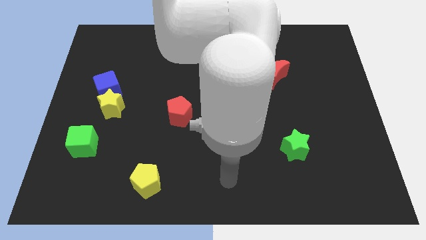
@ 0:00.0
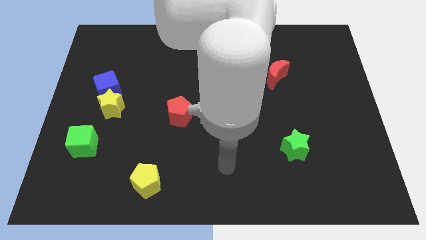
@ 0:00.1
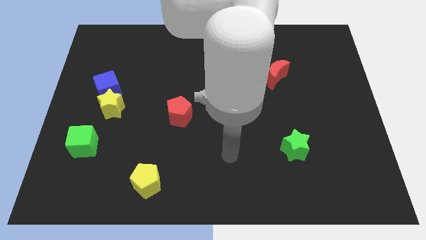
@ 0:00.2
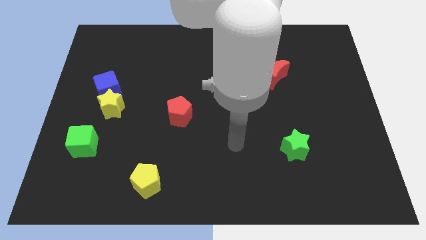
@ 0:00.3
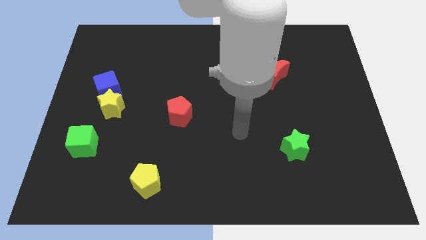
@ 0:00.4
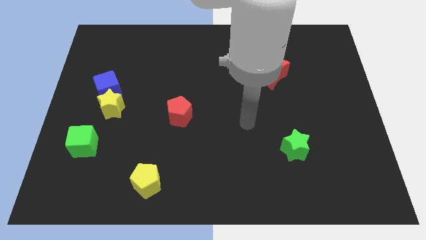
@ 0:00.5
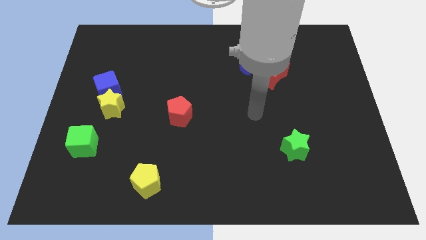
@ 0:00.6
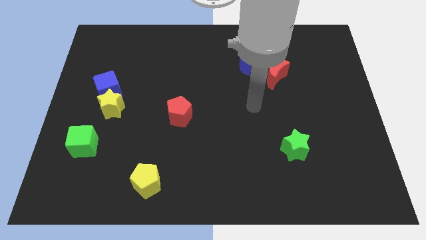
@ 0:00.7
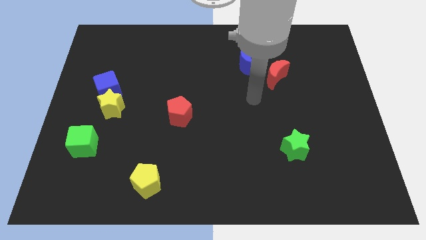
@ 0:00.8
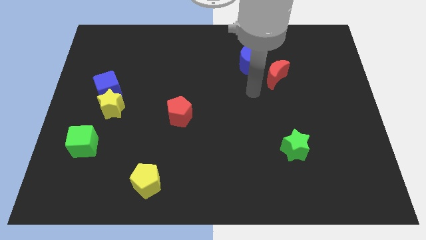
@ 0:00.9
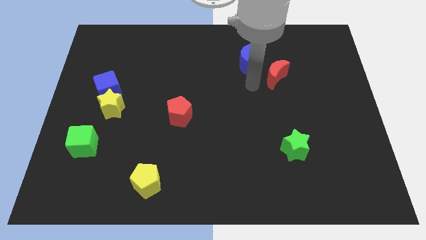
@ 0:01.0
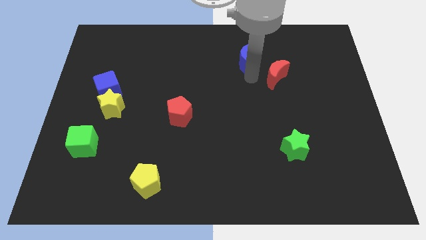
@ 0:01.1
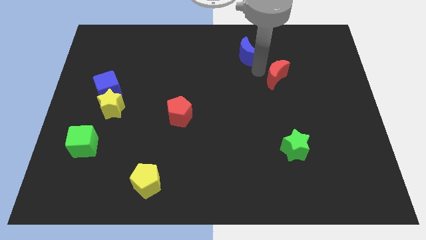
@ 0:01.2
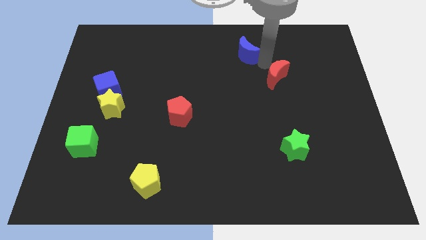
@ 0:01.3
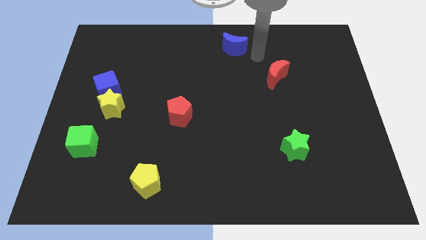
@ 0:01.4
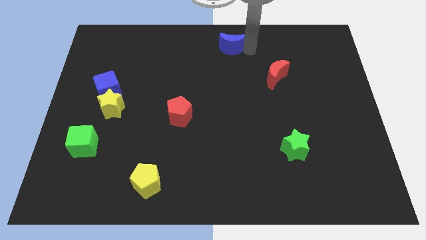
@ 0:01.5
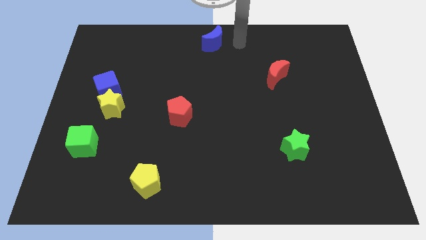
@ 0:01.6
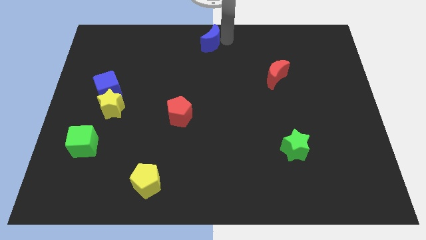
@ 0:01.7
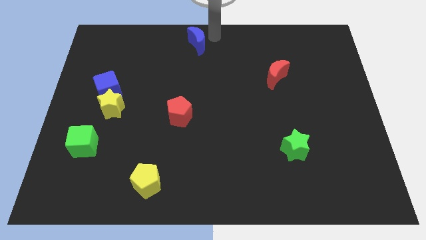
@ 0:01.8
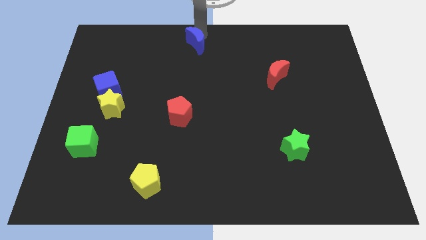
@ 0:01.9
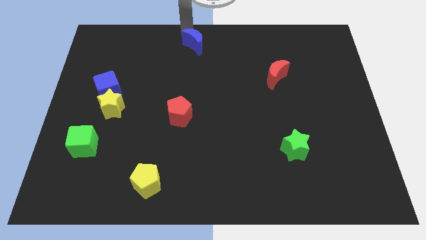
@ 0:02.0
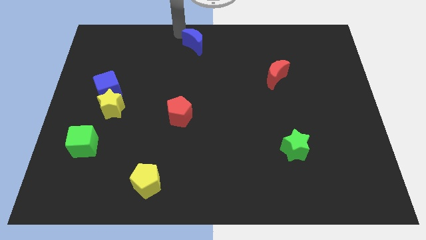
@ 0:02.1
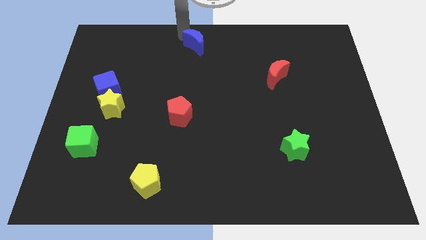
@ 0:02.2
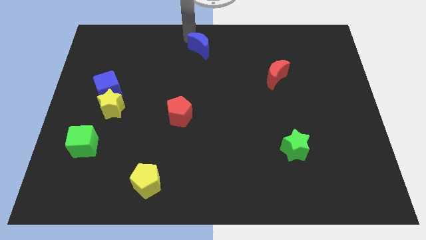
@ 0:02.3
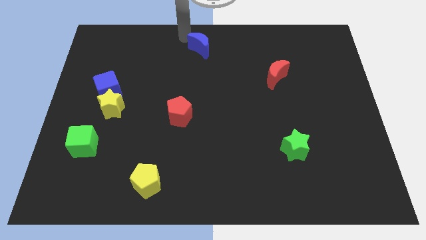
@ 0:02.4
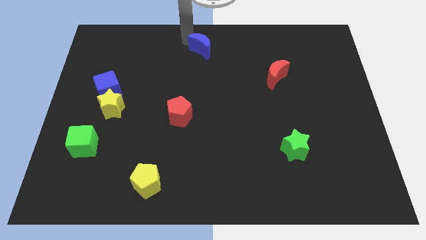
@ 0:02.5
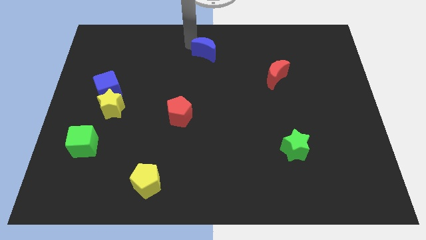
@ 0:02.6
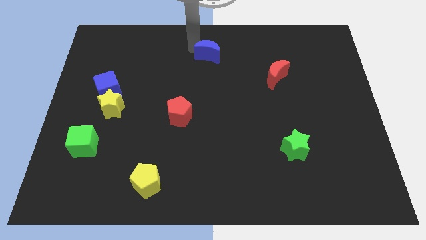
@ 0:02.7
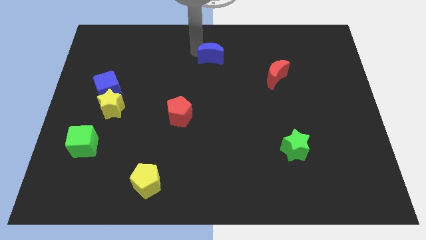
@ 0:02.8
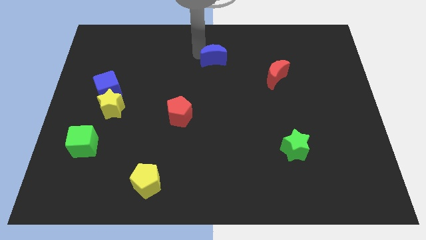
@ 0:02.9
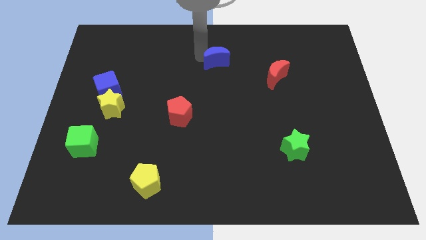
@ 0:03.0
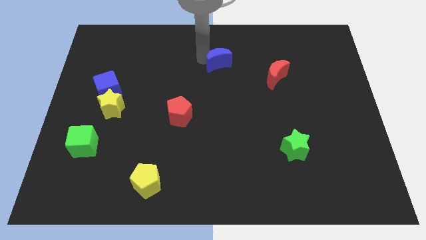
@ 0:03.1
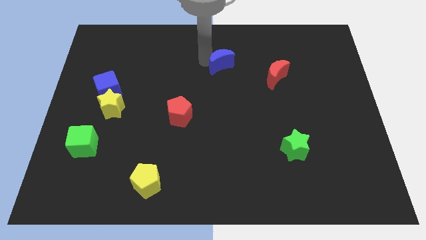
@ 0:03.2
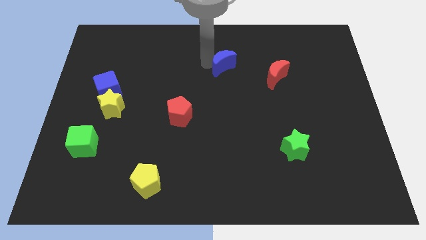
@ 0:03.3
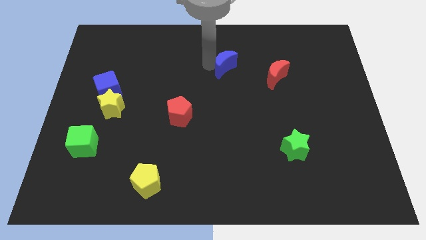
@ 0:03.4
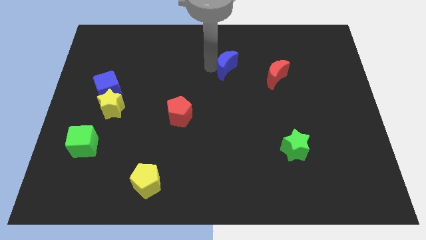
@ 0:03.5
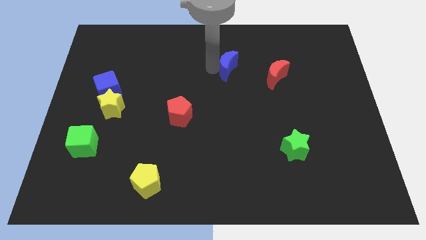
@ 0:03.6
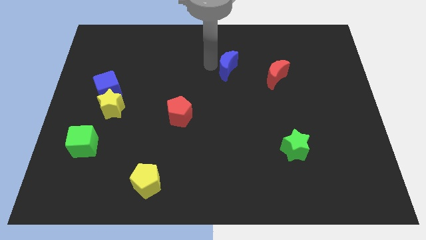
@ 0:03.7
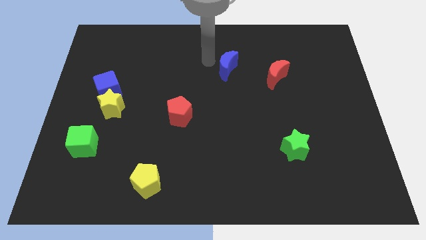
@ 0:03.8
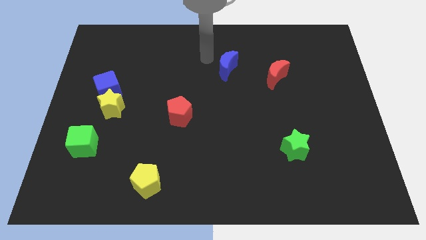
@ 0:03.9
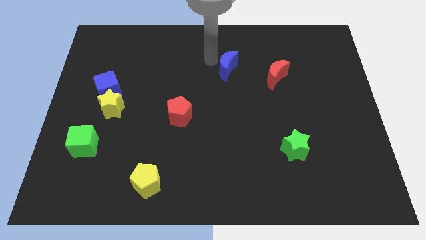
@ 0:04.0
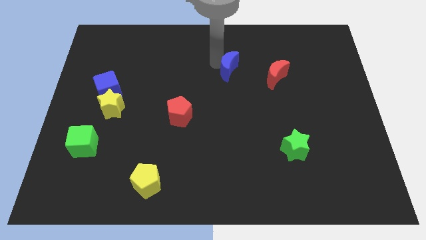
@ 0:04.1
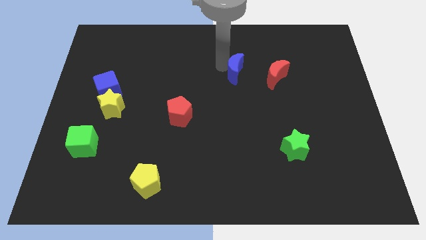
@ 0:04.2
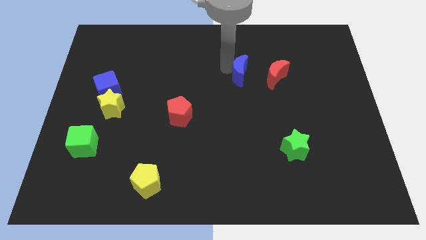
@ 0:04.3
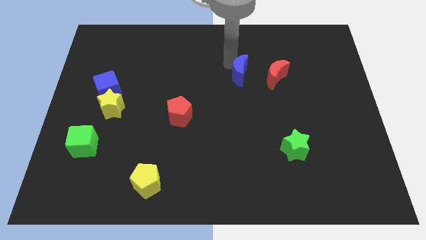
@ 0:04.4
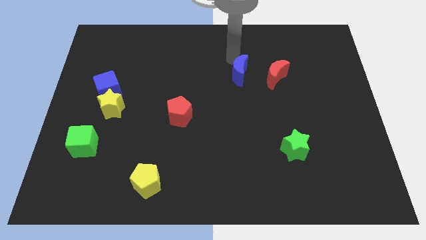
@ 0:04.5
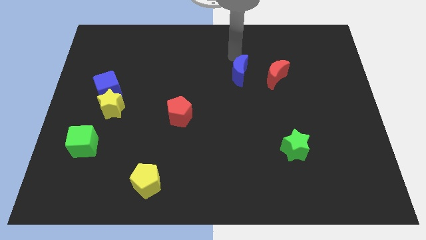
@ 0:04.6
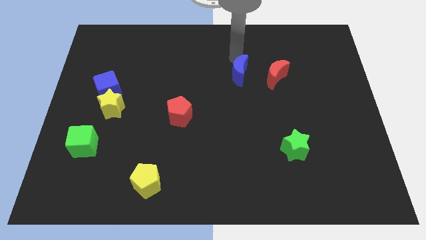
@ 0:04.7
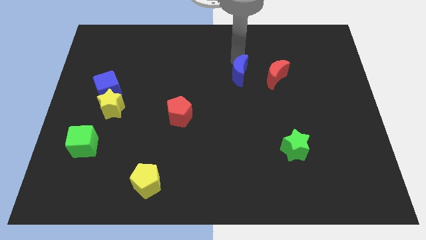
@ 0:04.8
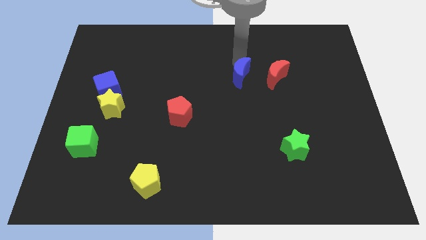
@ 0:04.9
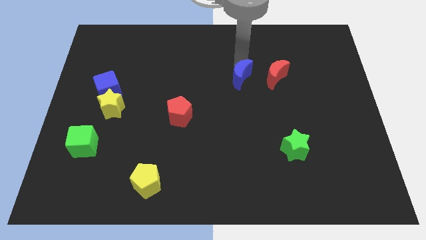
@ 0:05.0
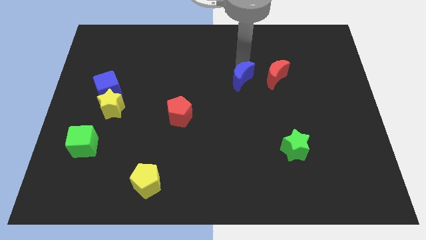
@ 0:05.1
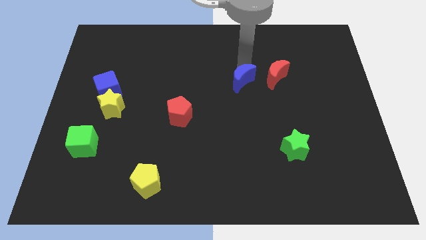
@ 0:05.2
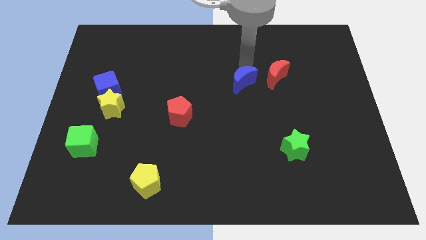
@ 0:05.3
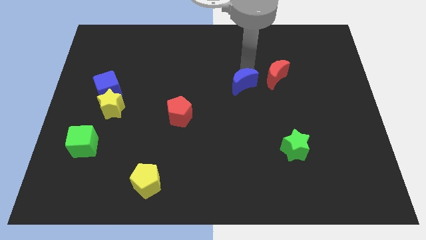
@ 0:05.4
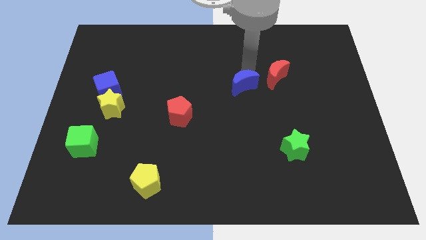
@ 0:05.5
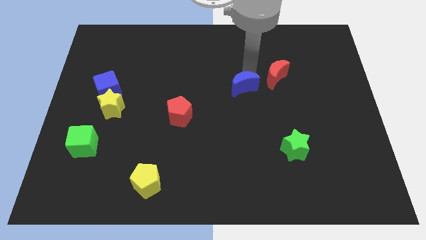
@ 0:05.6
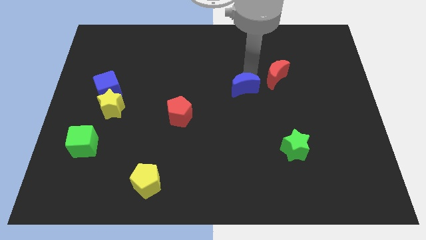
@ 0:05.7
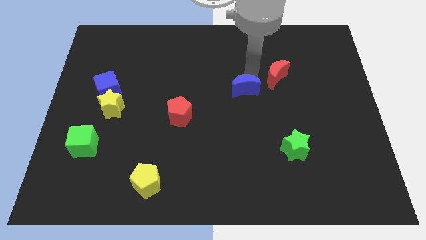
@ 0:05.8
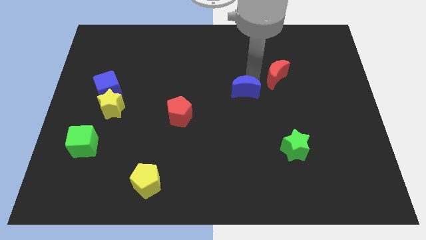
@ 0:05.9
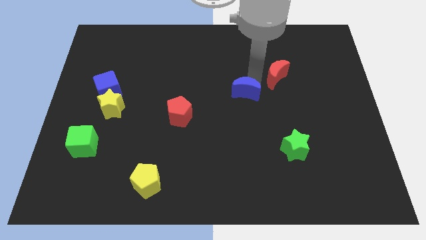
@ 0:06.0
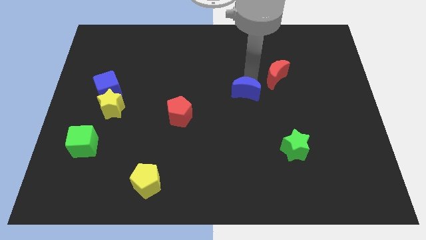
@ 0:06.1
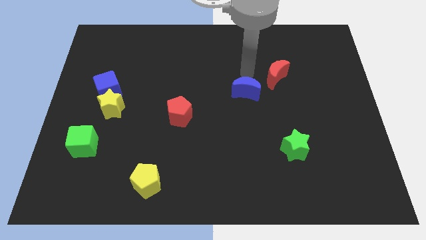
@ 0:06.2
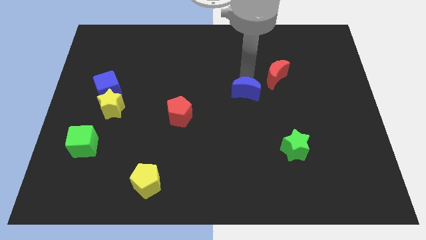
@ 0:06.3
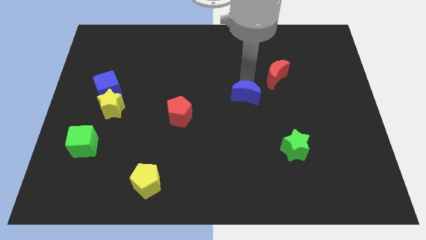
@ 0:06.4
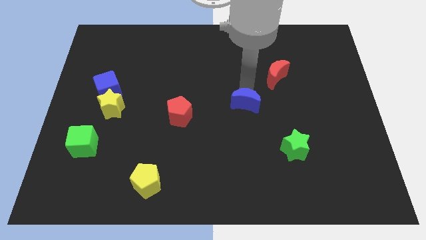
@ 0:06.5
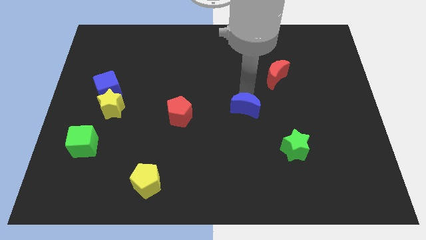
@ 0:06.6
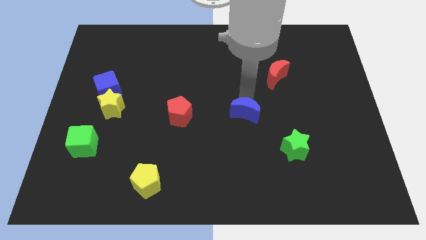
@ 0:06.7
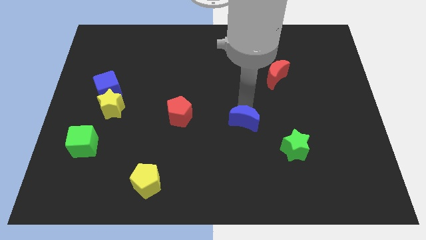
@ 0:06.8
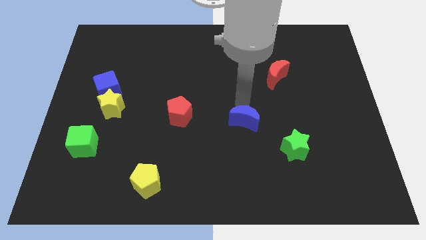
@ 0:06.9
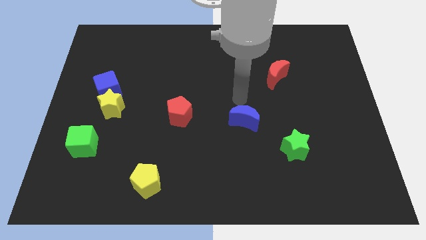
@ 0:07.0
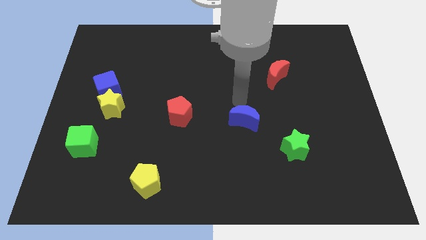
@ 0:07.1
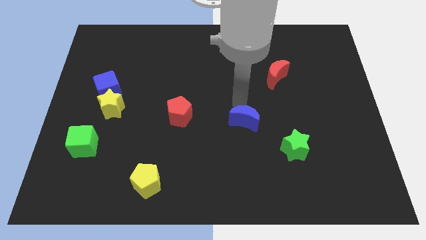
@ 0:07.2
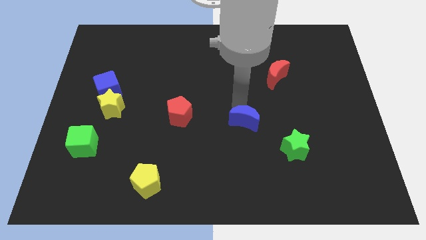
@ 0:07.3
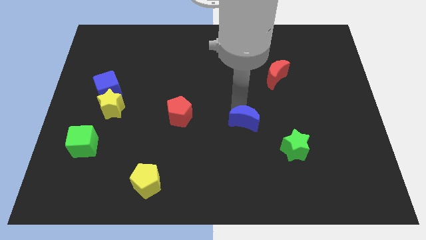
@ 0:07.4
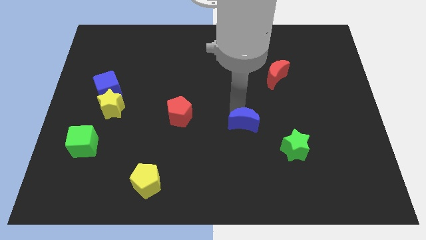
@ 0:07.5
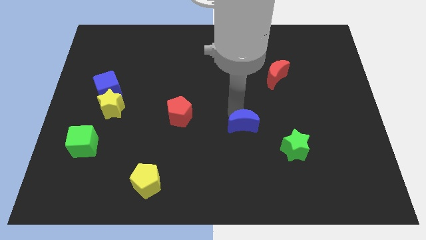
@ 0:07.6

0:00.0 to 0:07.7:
push the blue moon downwards

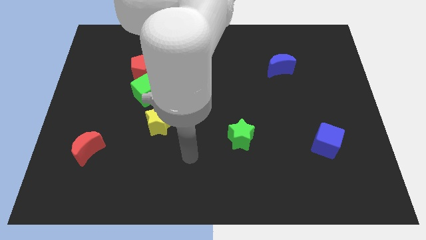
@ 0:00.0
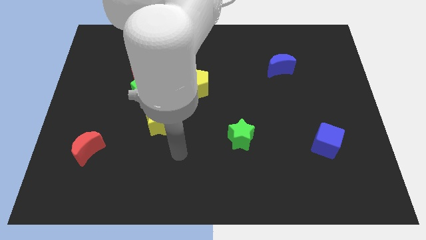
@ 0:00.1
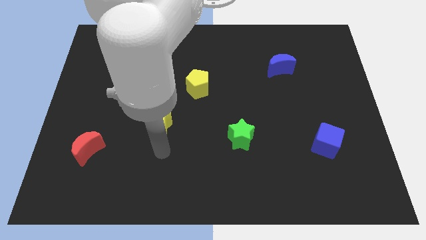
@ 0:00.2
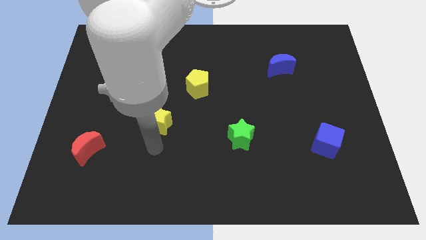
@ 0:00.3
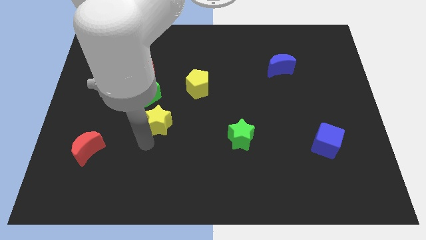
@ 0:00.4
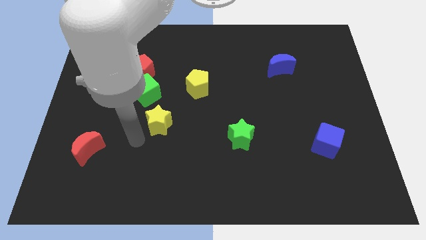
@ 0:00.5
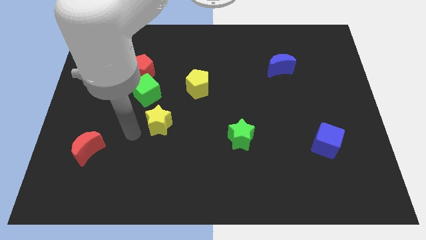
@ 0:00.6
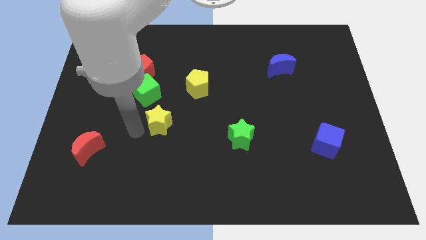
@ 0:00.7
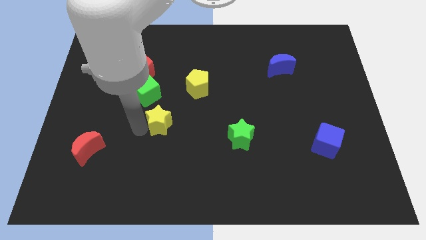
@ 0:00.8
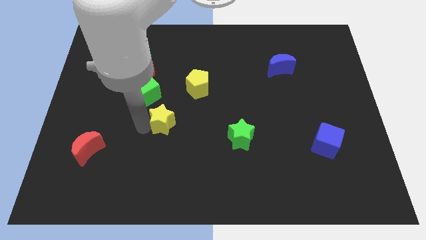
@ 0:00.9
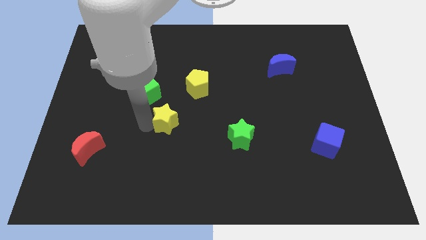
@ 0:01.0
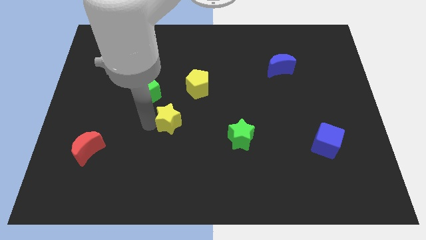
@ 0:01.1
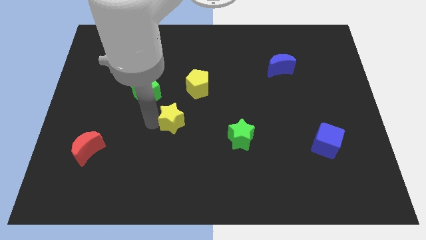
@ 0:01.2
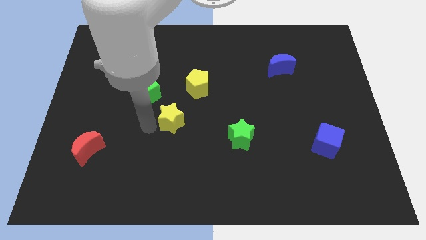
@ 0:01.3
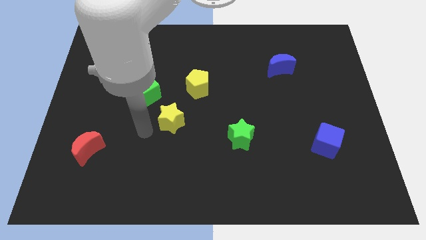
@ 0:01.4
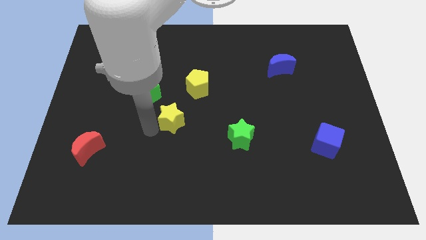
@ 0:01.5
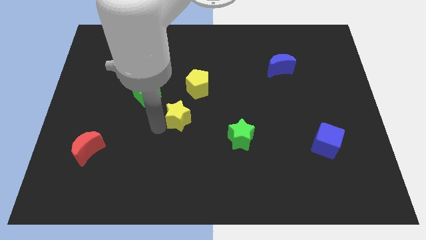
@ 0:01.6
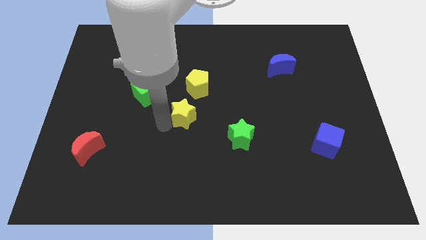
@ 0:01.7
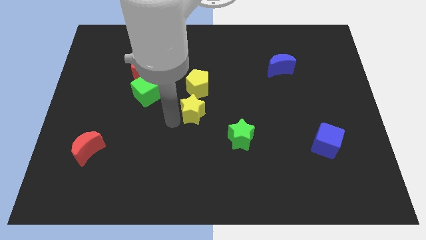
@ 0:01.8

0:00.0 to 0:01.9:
move the yellow star a little to the right
